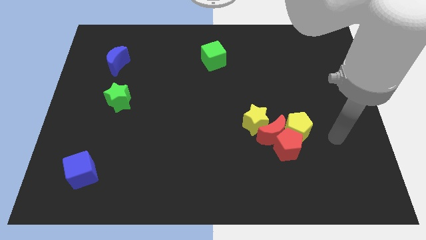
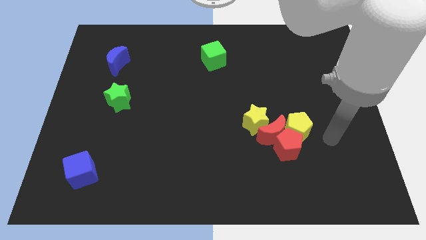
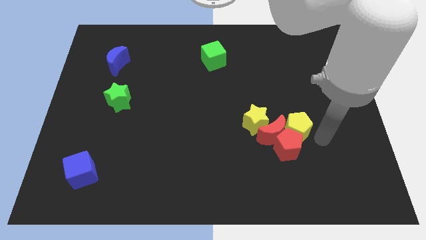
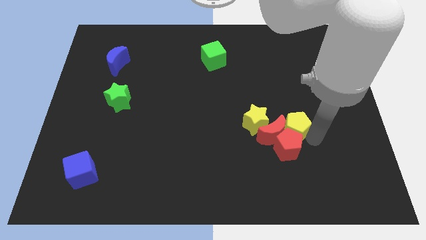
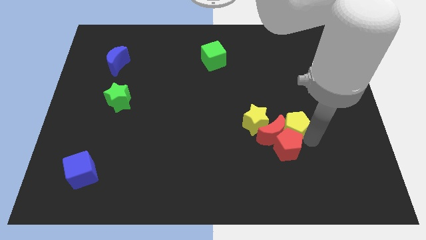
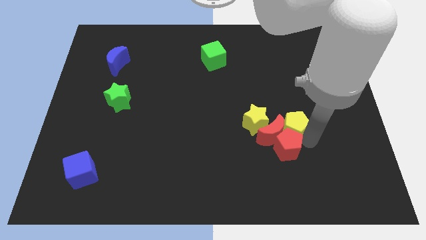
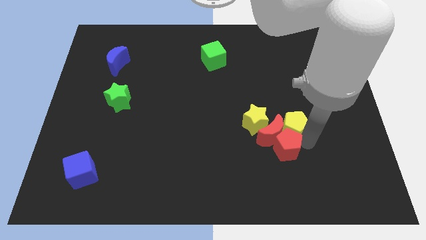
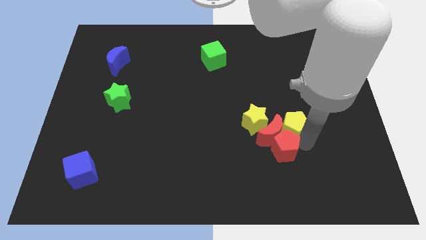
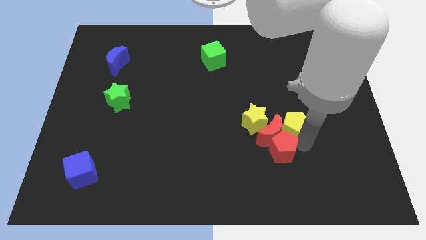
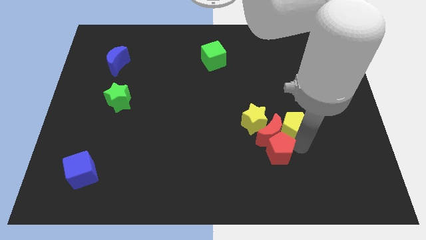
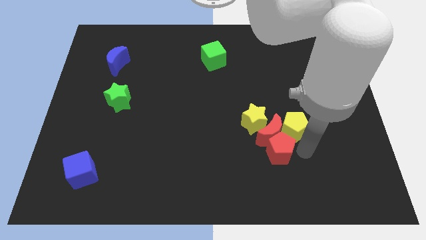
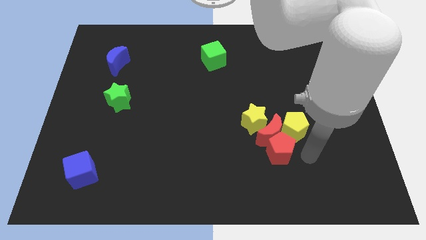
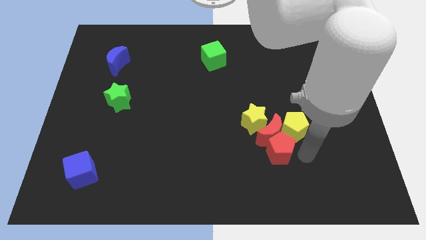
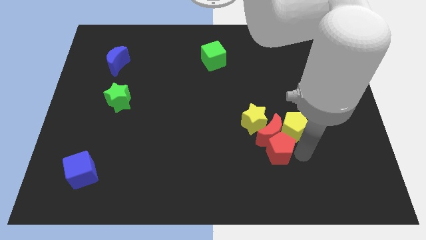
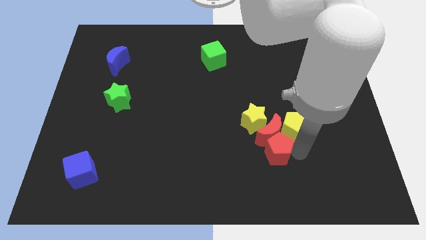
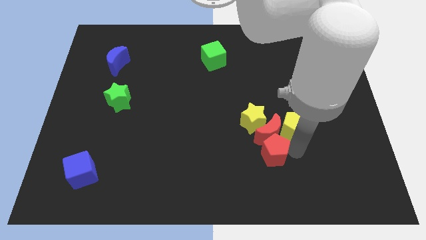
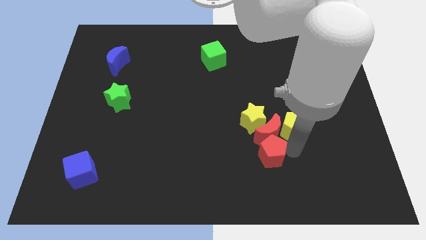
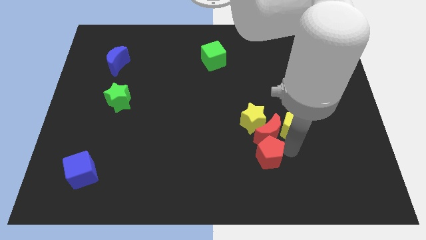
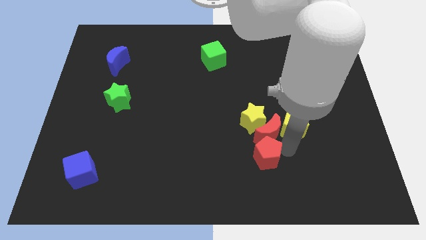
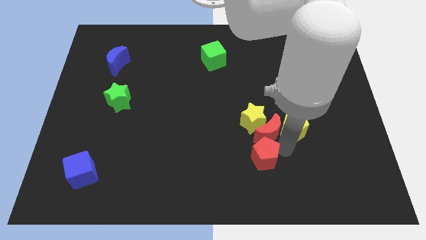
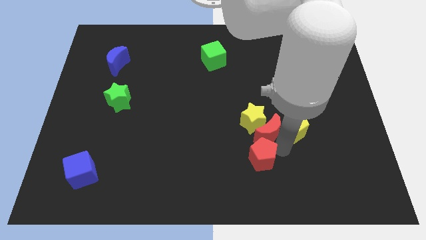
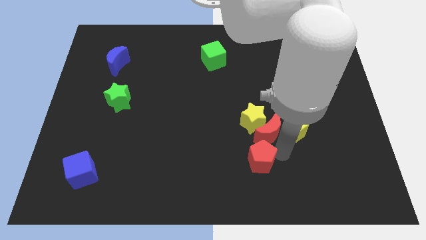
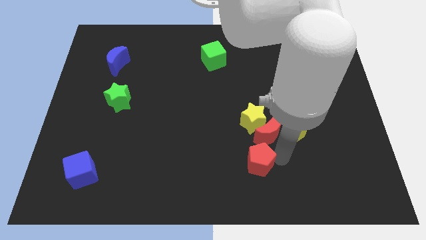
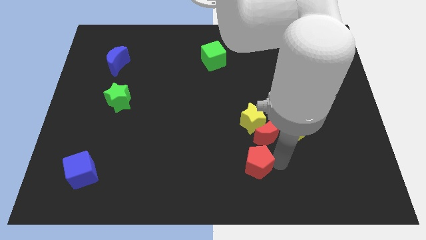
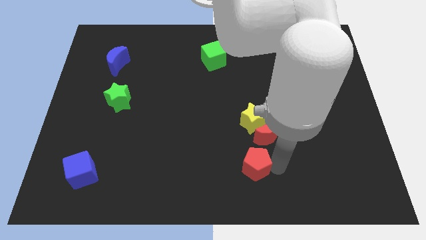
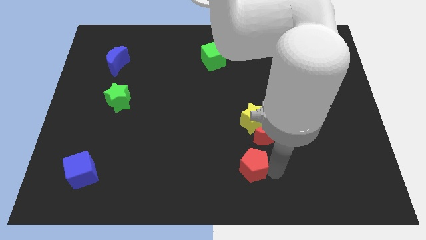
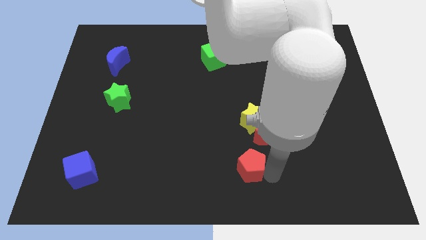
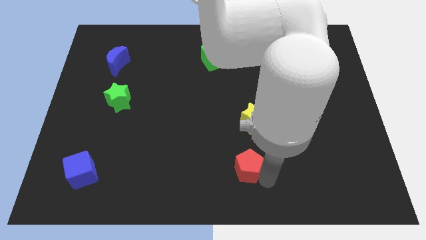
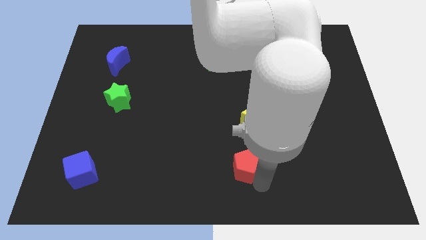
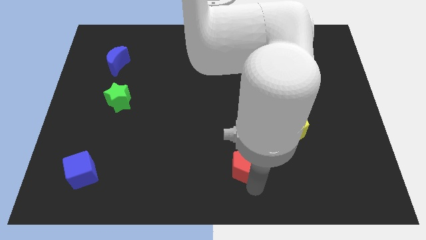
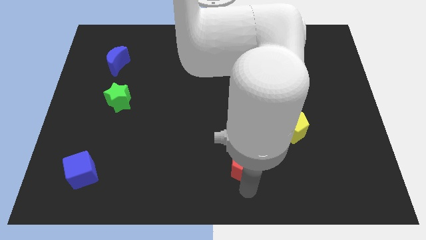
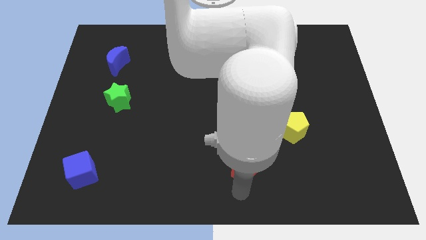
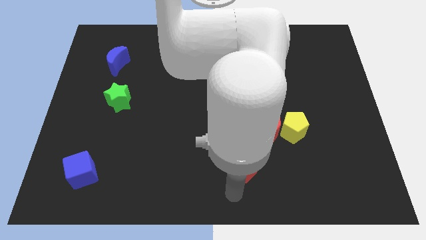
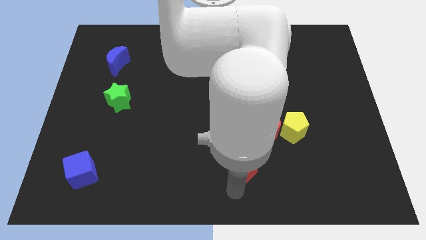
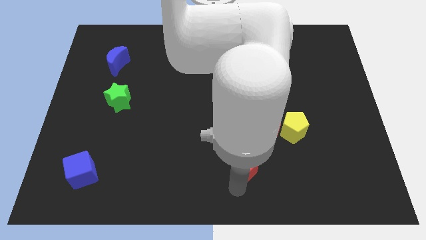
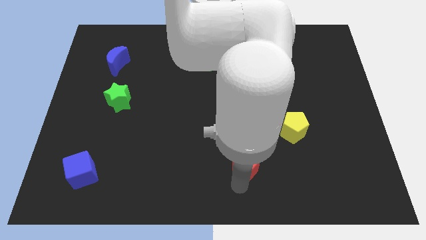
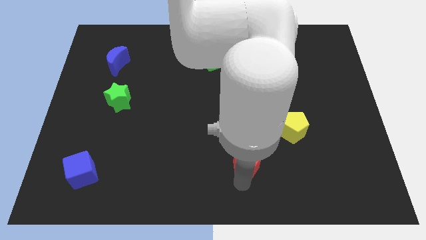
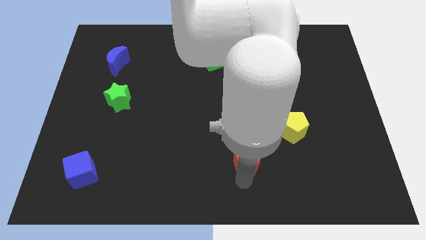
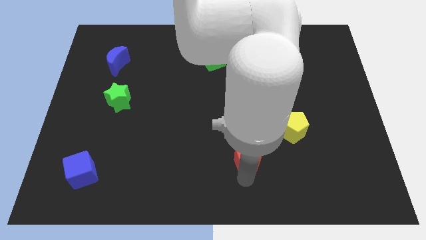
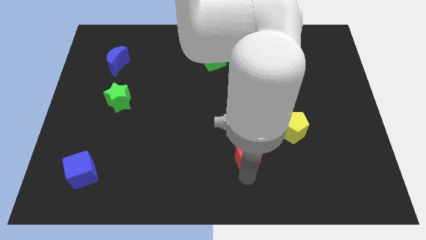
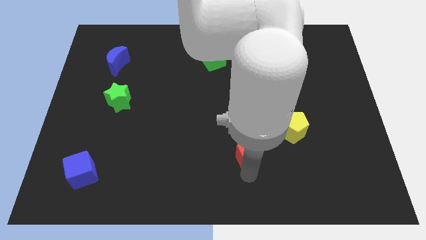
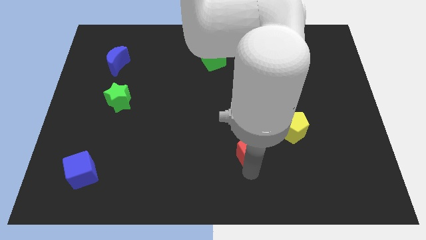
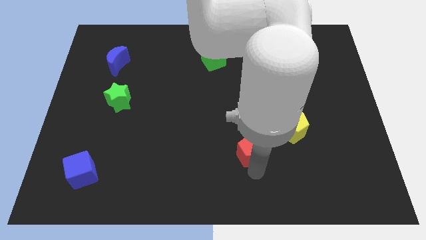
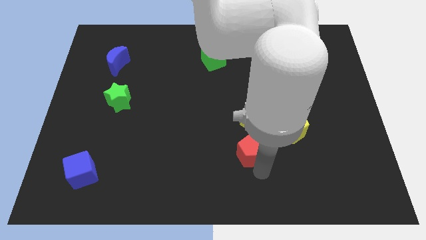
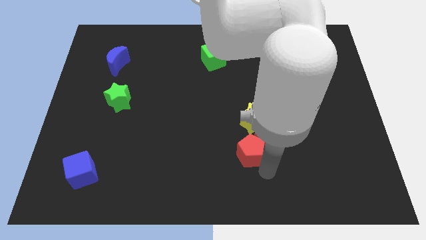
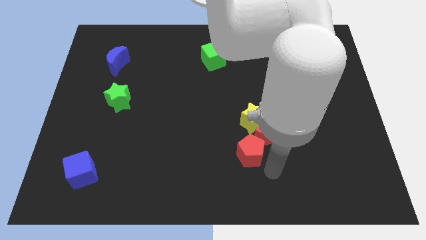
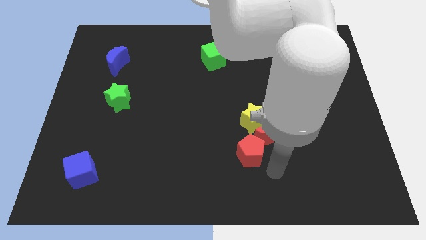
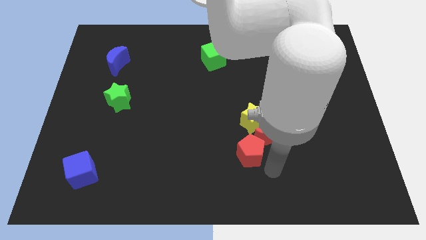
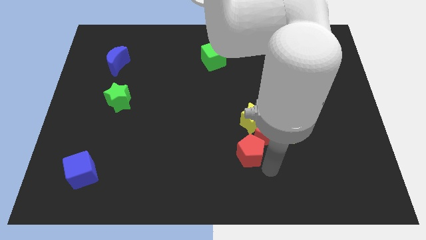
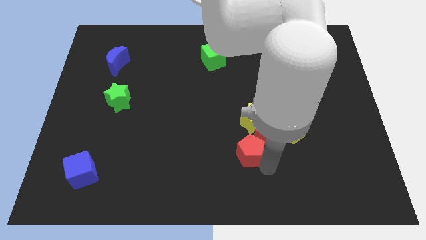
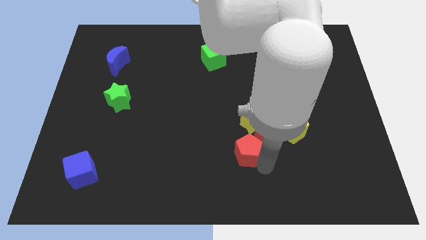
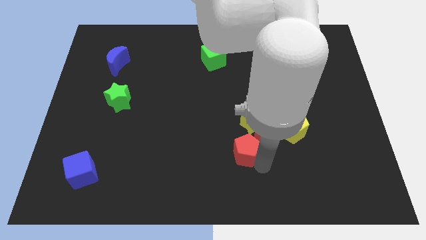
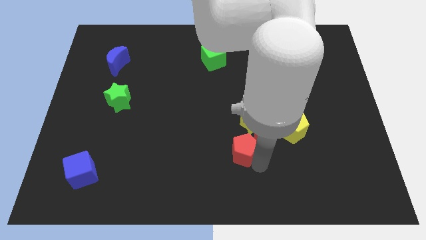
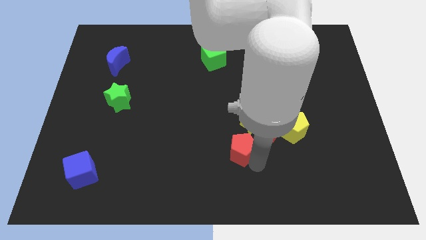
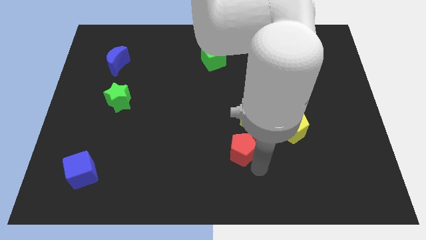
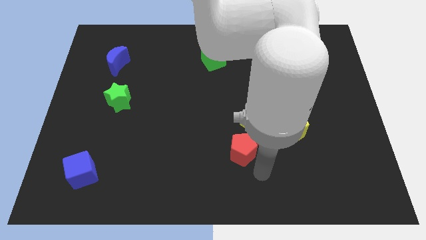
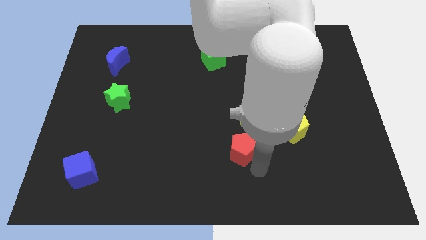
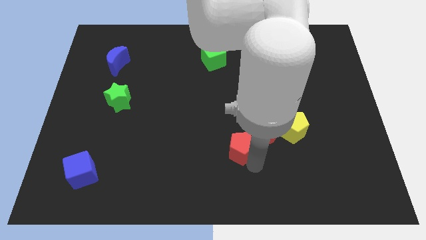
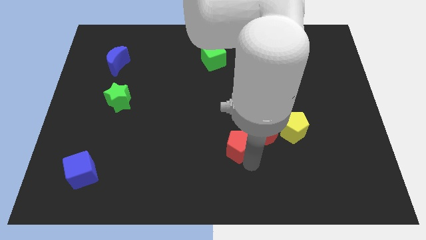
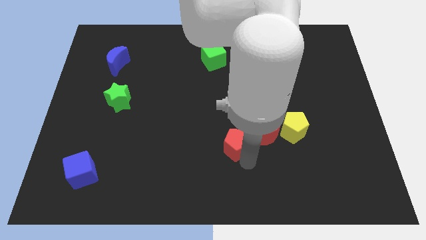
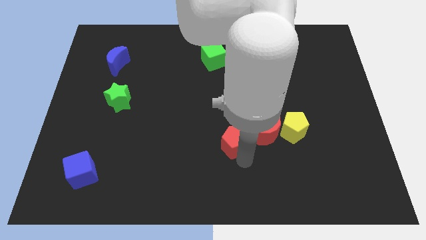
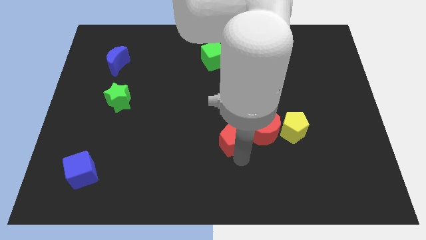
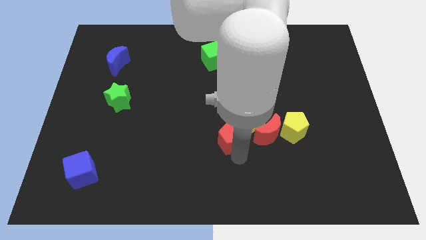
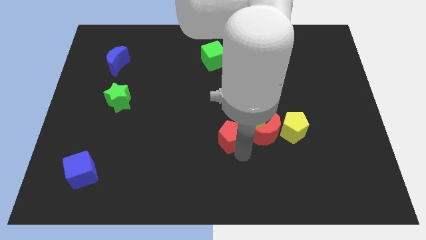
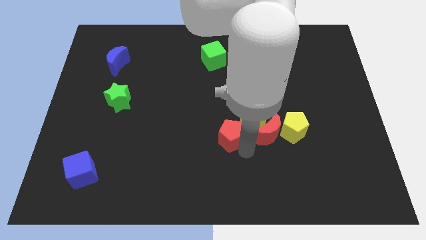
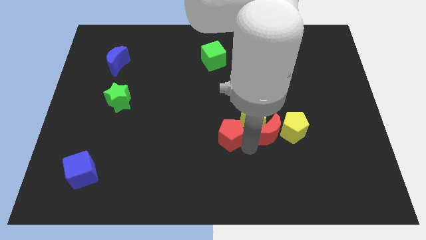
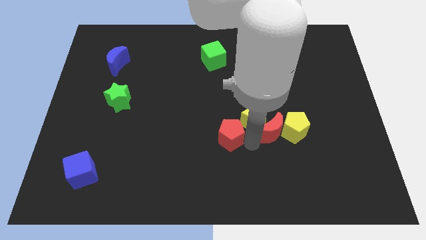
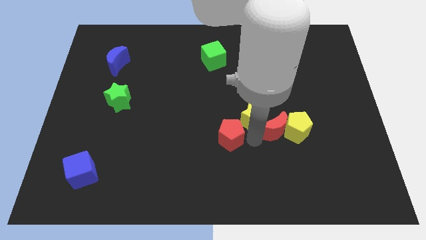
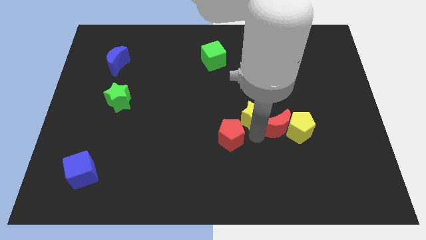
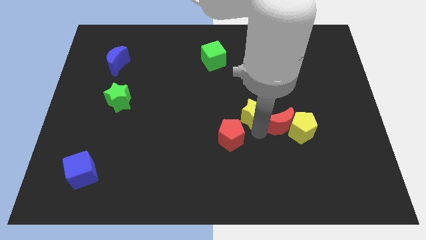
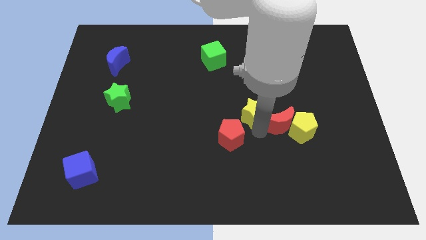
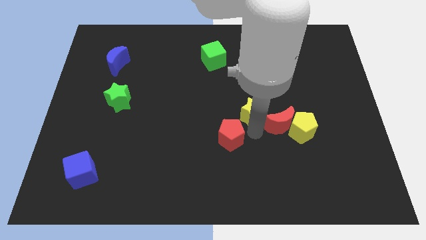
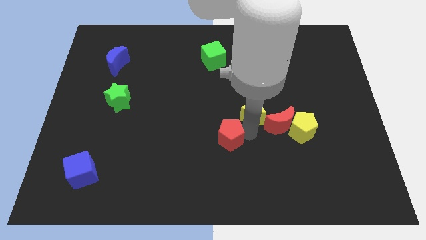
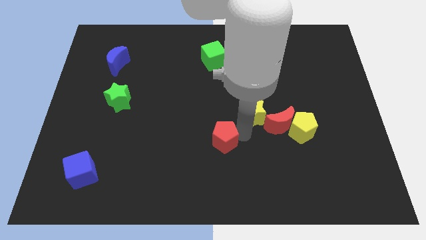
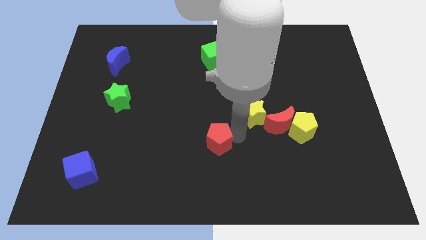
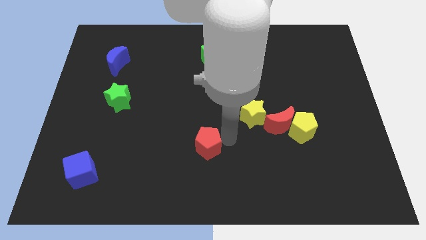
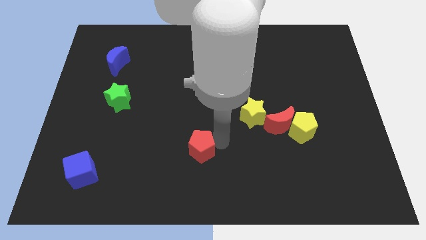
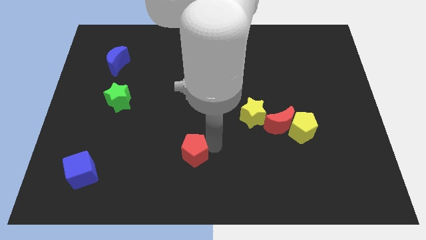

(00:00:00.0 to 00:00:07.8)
move the red pentagon to the left
